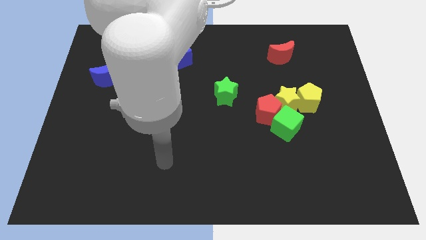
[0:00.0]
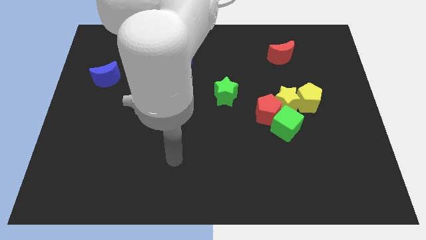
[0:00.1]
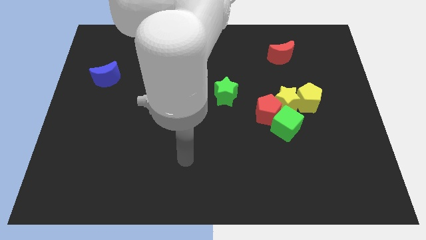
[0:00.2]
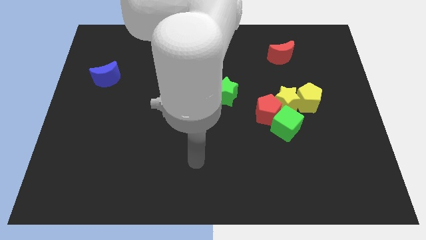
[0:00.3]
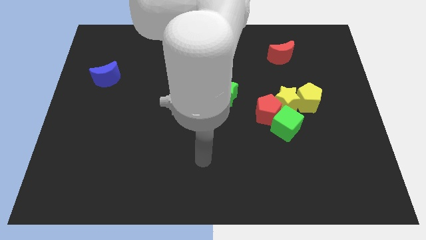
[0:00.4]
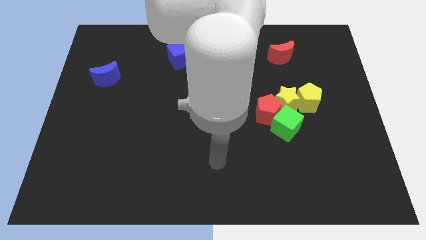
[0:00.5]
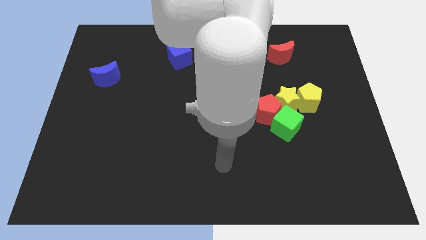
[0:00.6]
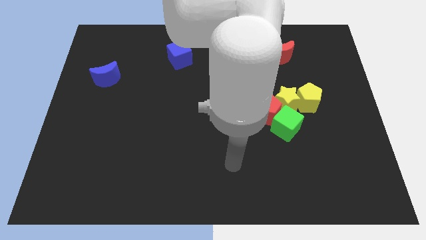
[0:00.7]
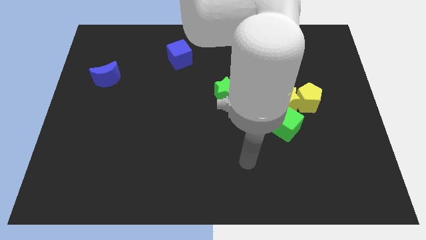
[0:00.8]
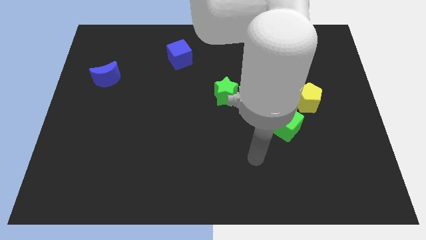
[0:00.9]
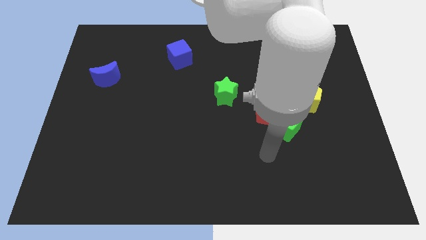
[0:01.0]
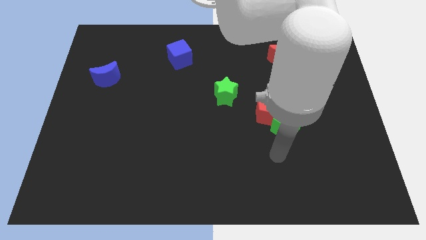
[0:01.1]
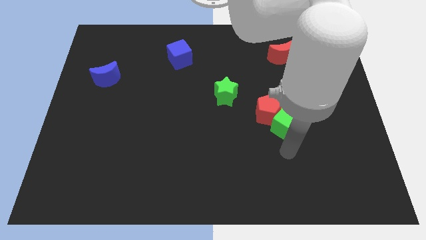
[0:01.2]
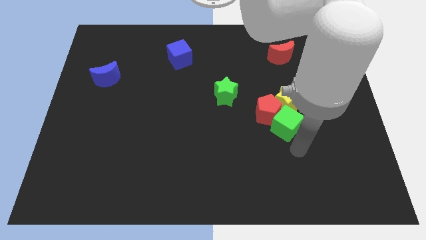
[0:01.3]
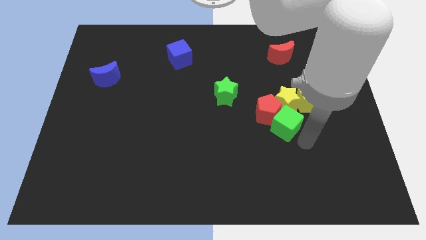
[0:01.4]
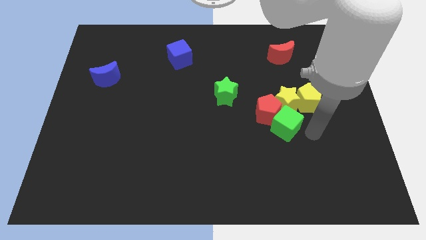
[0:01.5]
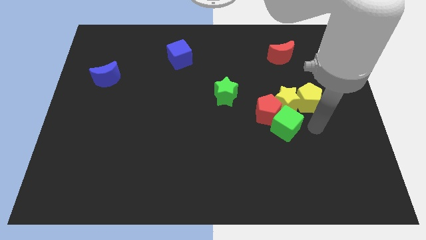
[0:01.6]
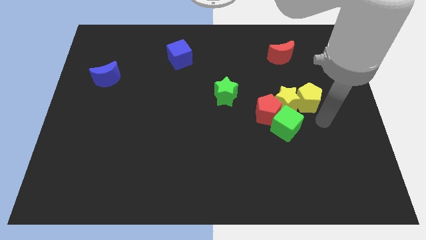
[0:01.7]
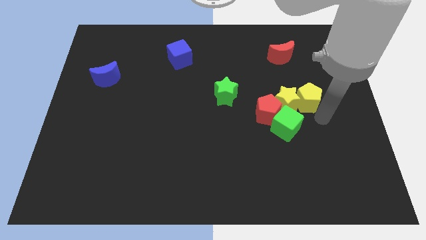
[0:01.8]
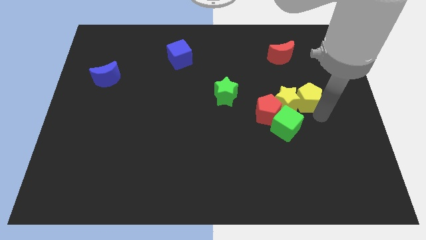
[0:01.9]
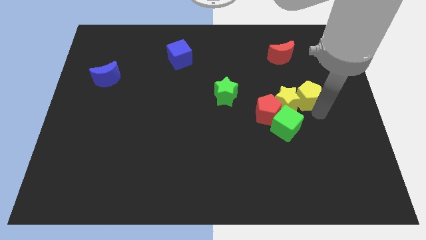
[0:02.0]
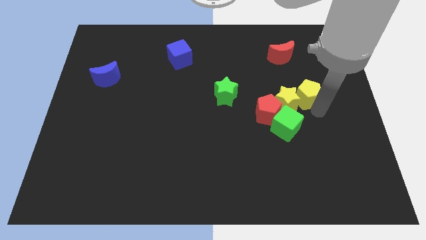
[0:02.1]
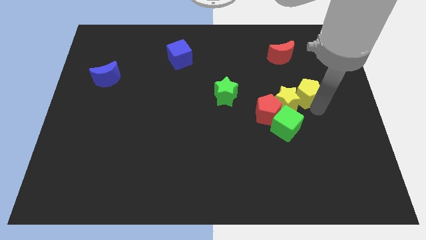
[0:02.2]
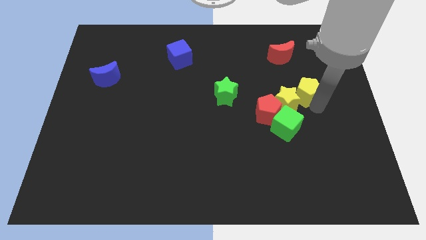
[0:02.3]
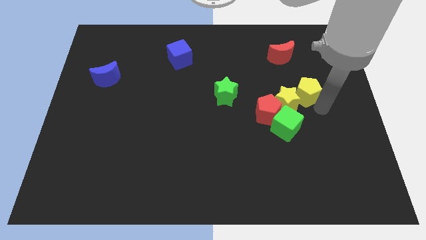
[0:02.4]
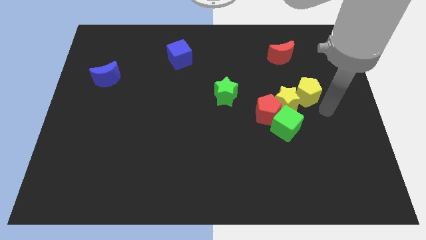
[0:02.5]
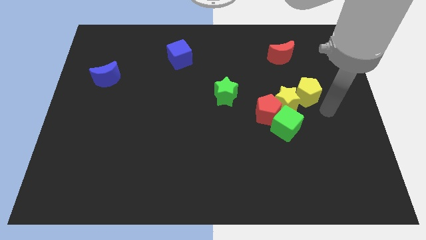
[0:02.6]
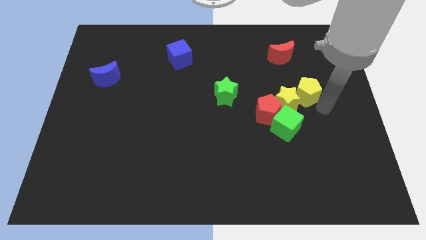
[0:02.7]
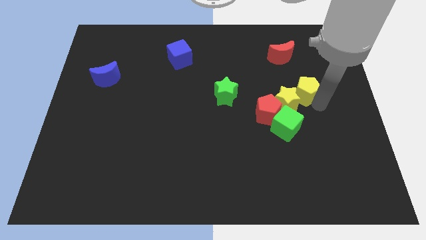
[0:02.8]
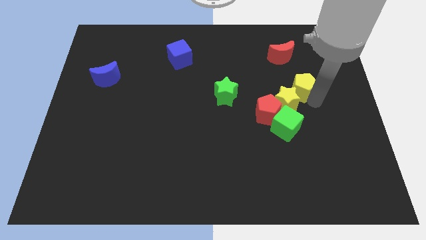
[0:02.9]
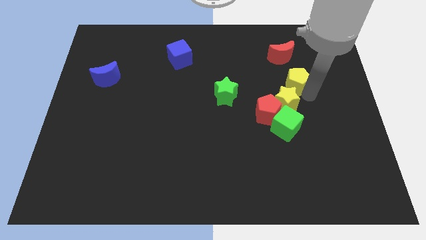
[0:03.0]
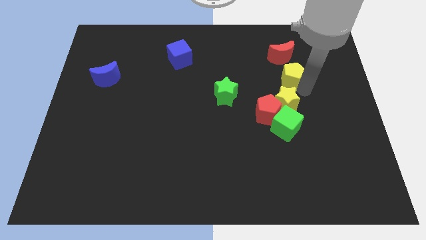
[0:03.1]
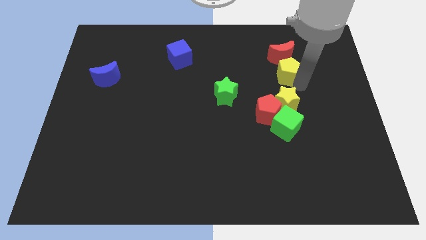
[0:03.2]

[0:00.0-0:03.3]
slightly slide the yellow pentagon upwards and then to the left

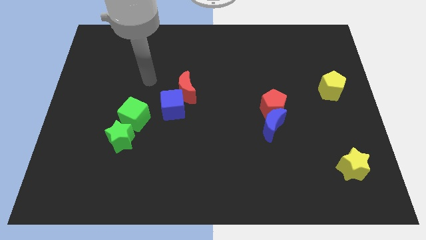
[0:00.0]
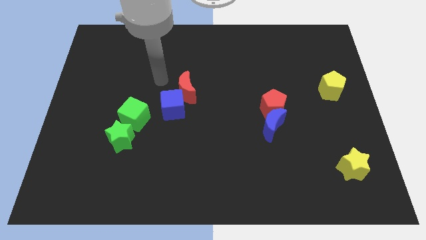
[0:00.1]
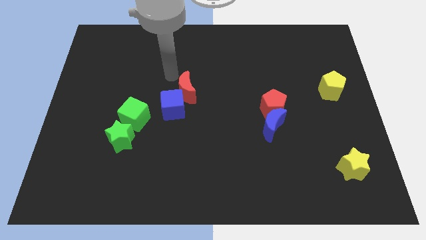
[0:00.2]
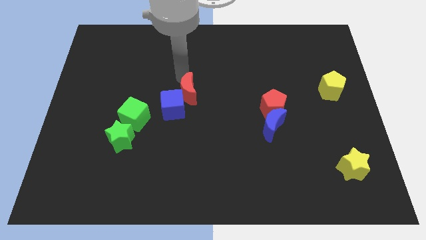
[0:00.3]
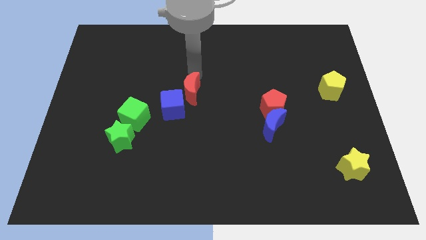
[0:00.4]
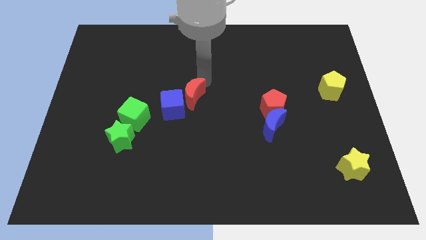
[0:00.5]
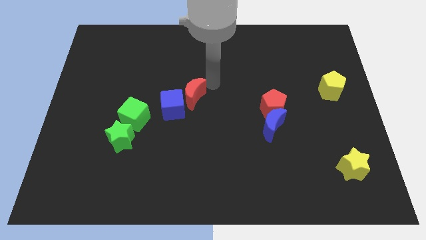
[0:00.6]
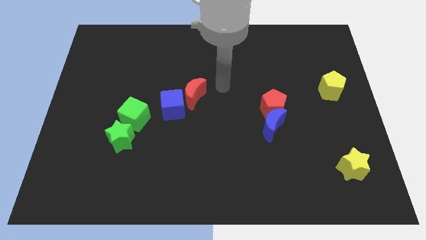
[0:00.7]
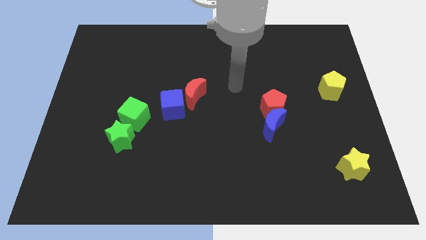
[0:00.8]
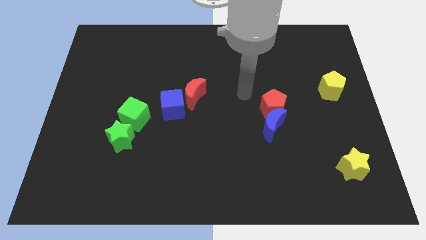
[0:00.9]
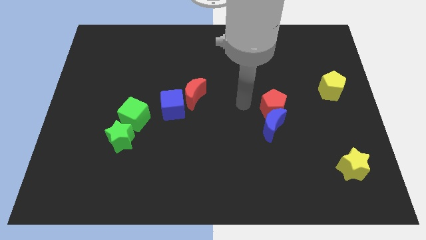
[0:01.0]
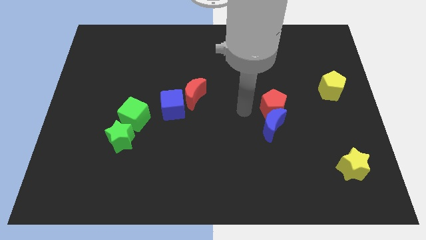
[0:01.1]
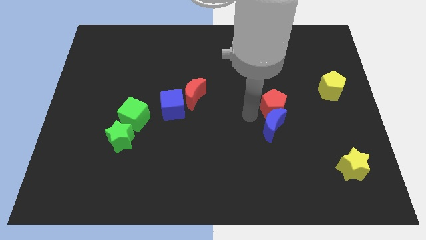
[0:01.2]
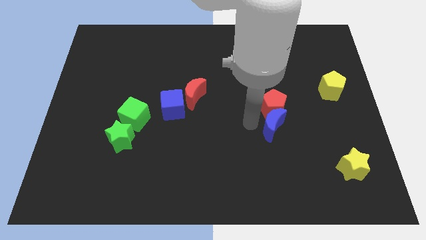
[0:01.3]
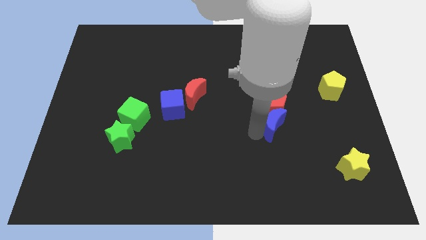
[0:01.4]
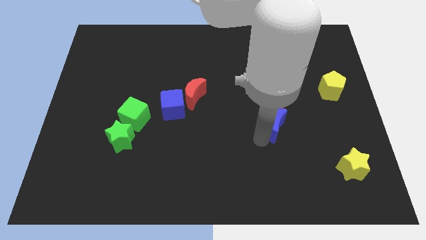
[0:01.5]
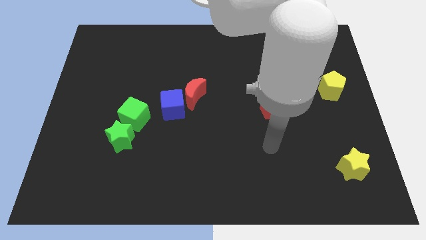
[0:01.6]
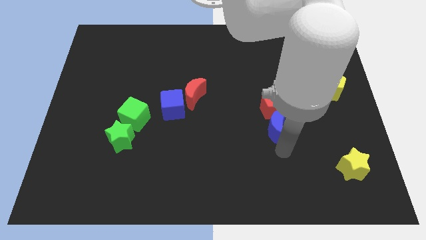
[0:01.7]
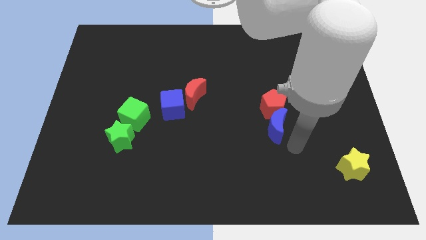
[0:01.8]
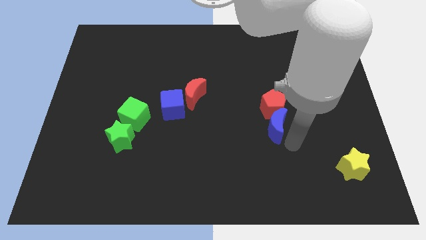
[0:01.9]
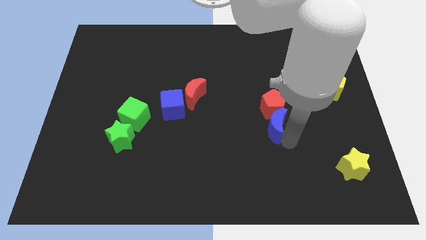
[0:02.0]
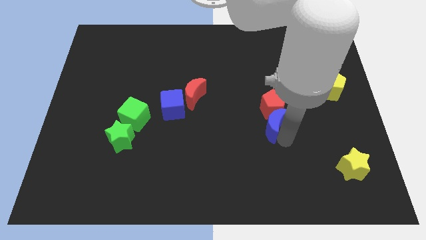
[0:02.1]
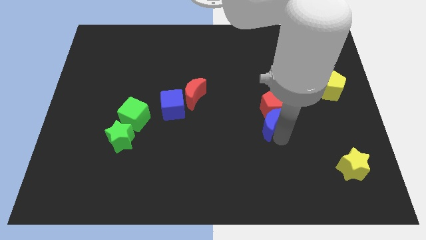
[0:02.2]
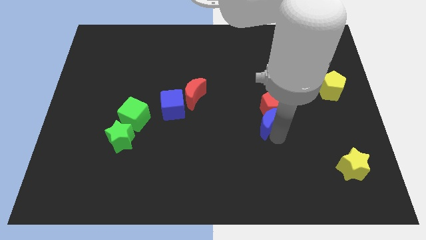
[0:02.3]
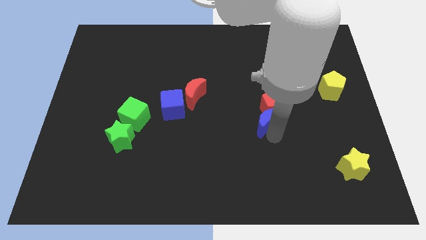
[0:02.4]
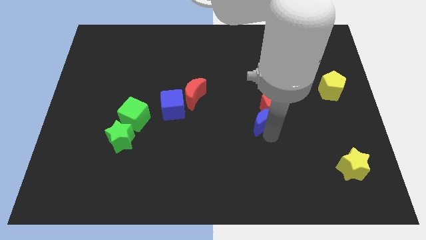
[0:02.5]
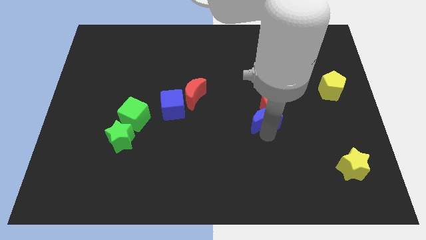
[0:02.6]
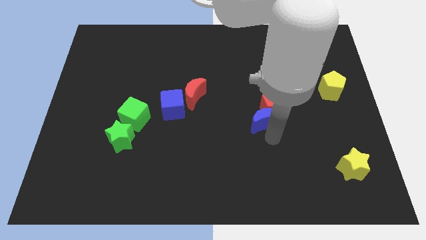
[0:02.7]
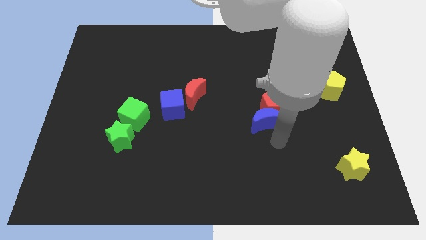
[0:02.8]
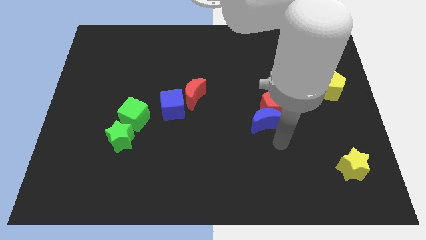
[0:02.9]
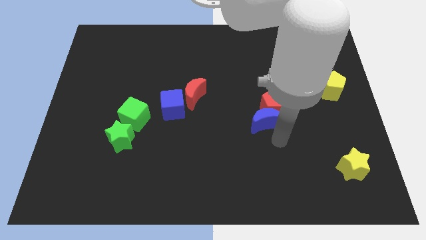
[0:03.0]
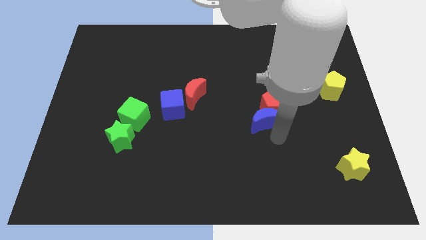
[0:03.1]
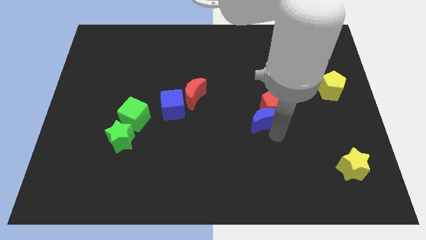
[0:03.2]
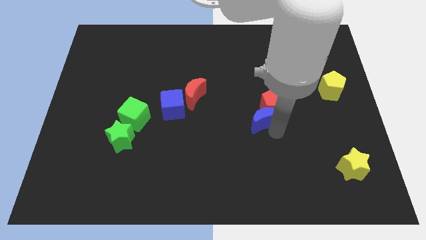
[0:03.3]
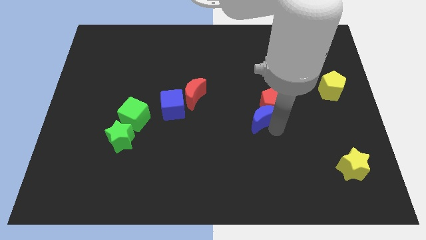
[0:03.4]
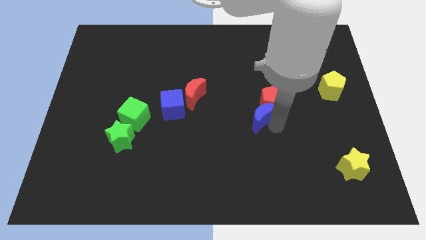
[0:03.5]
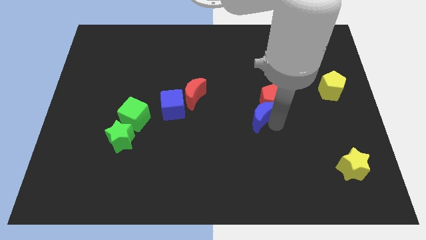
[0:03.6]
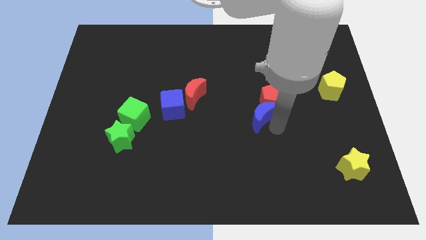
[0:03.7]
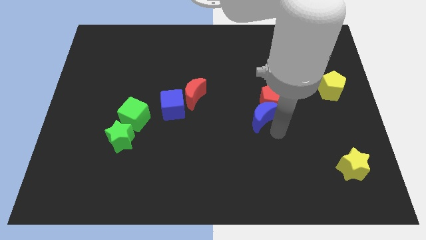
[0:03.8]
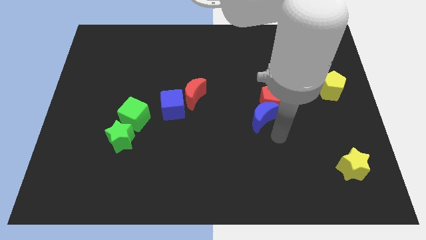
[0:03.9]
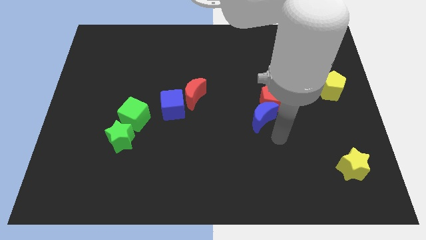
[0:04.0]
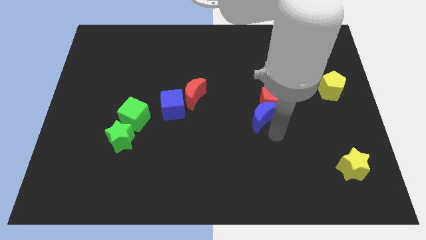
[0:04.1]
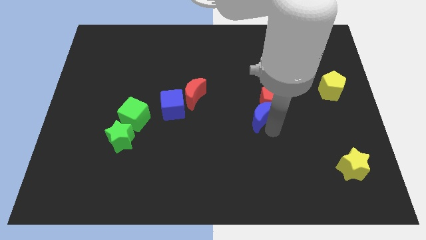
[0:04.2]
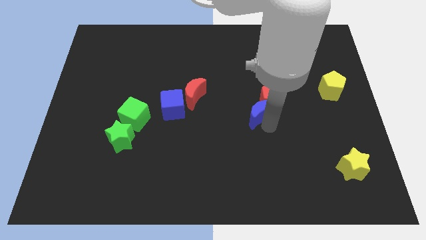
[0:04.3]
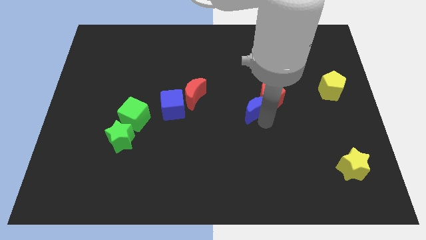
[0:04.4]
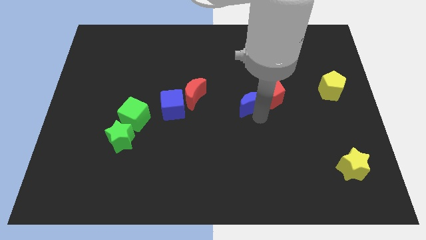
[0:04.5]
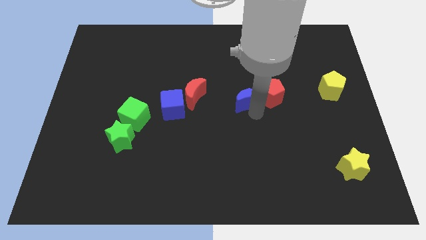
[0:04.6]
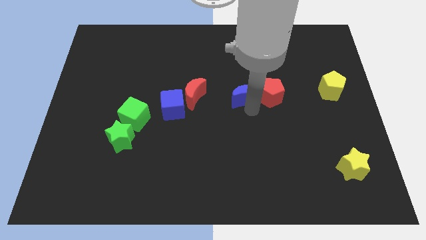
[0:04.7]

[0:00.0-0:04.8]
slightly slide the blue moon upwards

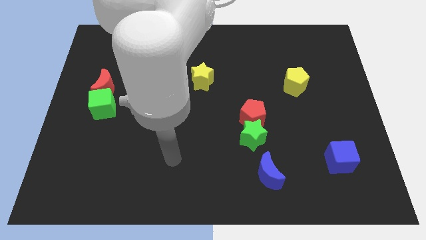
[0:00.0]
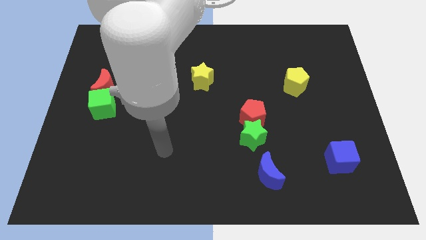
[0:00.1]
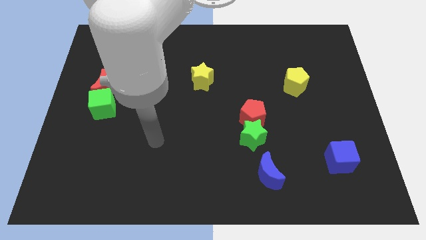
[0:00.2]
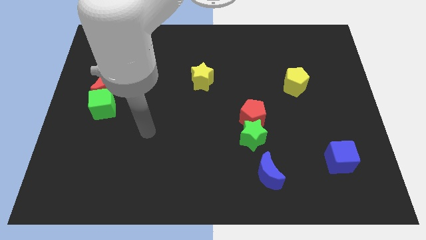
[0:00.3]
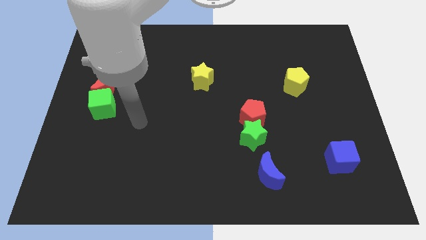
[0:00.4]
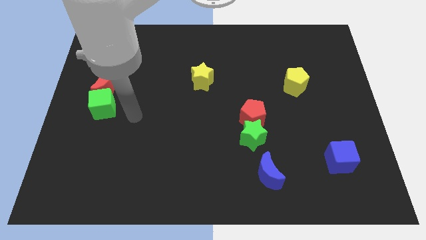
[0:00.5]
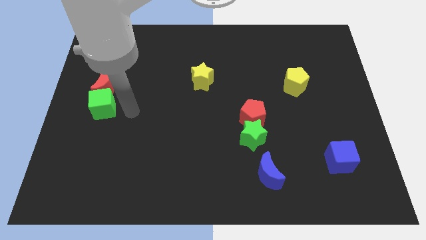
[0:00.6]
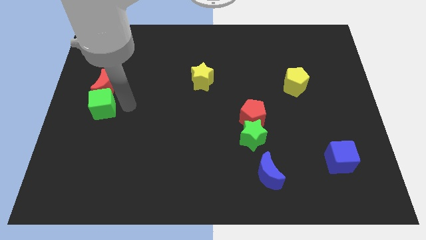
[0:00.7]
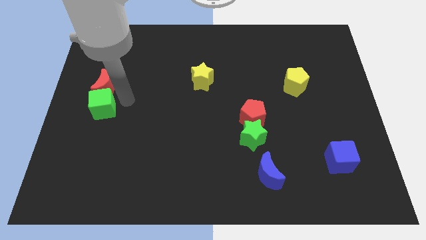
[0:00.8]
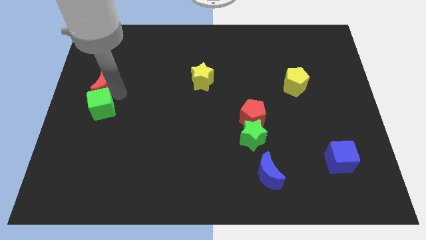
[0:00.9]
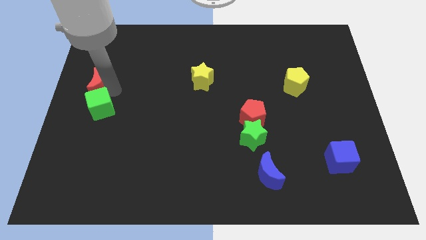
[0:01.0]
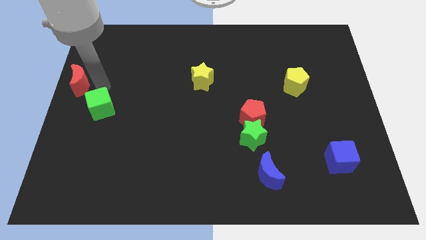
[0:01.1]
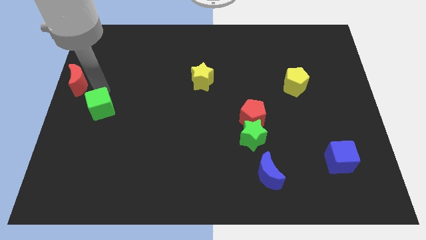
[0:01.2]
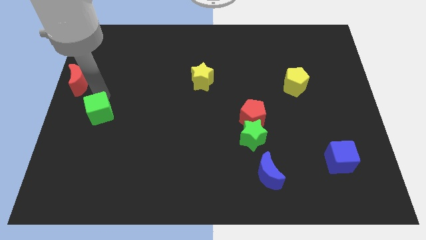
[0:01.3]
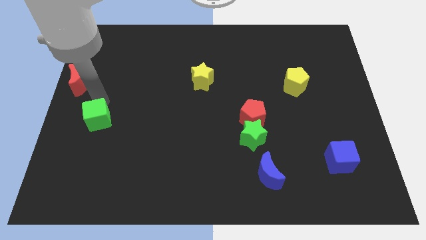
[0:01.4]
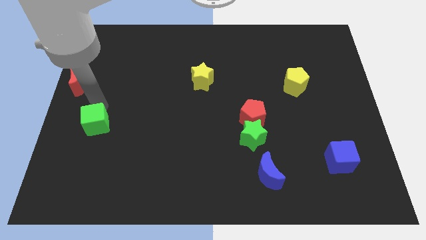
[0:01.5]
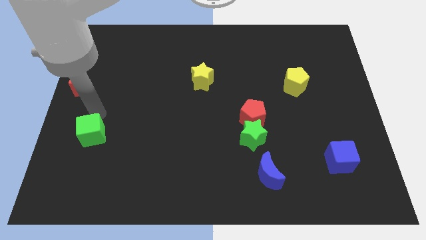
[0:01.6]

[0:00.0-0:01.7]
push the green cube down a little bit
